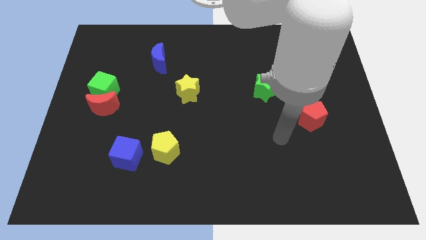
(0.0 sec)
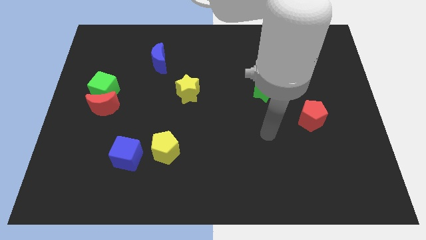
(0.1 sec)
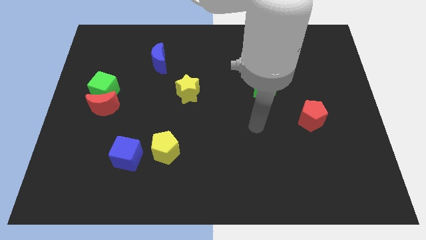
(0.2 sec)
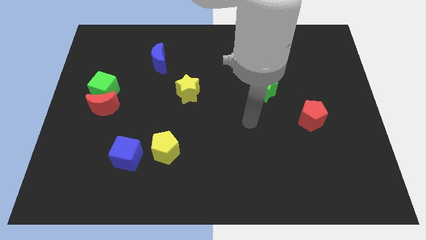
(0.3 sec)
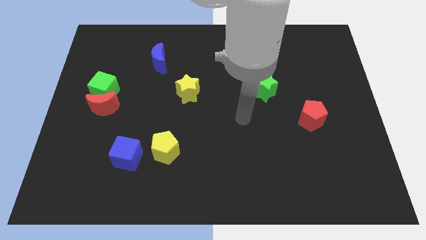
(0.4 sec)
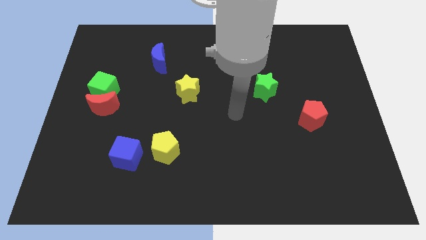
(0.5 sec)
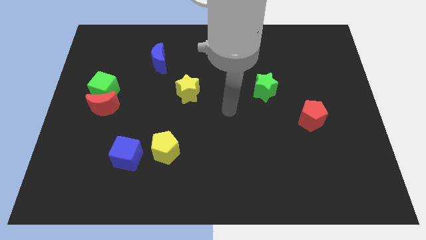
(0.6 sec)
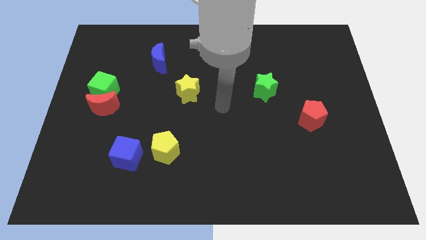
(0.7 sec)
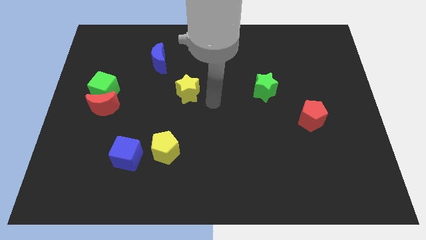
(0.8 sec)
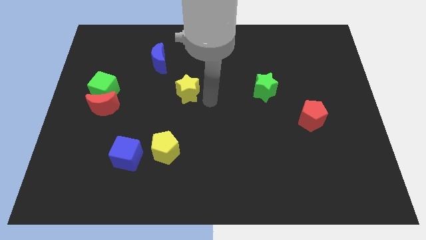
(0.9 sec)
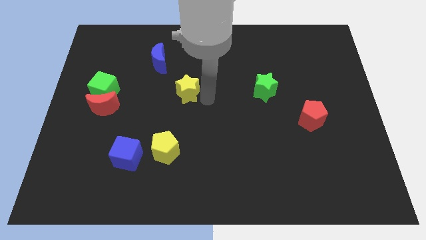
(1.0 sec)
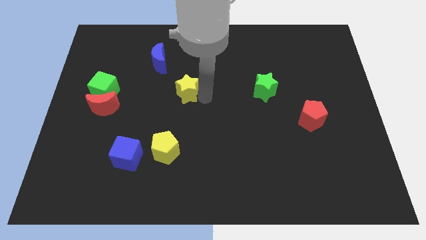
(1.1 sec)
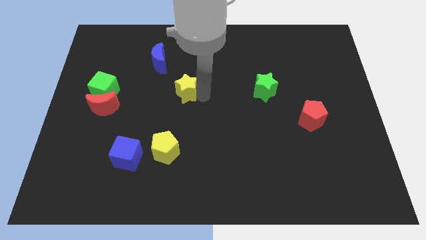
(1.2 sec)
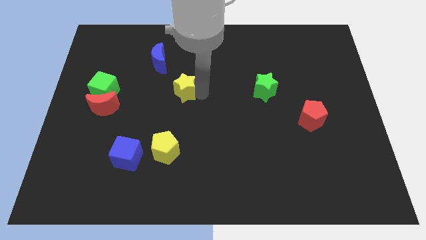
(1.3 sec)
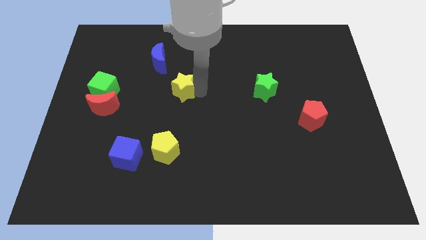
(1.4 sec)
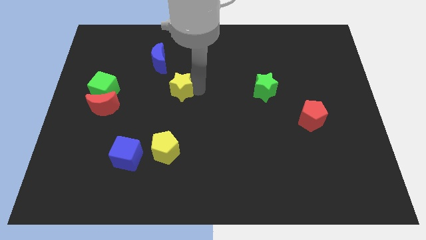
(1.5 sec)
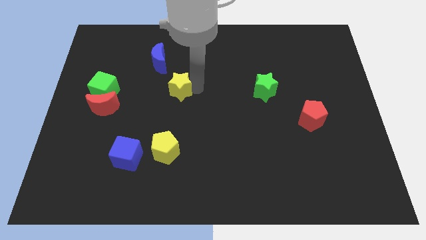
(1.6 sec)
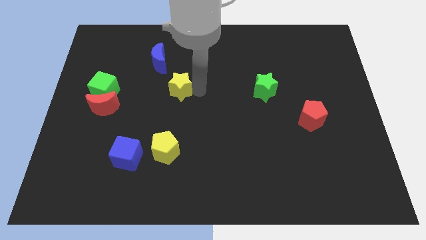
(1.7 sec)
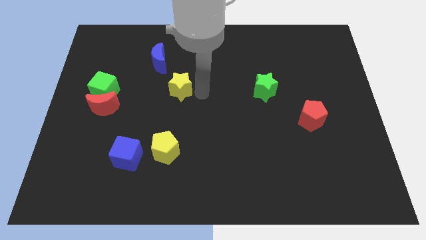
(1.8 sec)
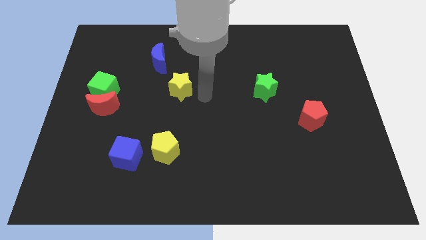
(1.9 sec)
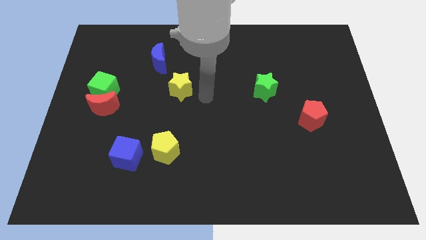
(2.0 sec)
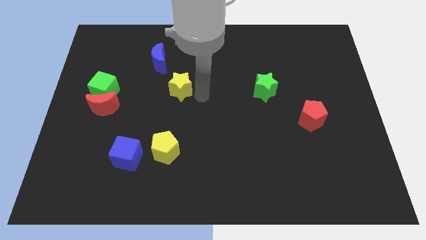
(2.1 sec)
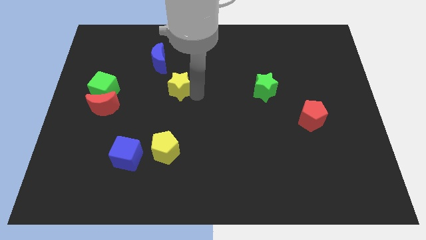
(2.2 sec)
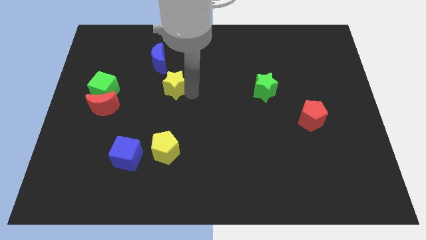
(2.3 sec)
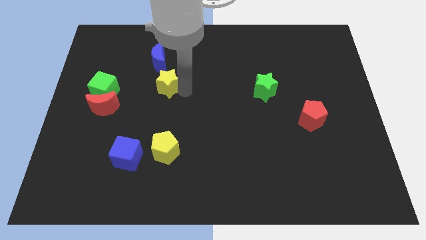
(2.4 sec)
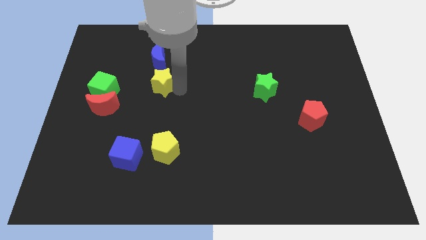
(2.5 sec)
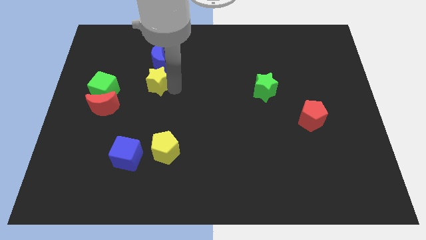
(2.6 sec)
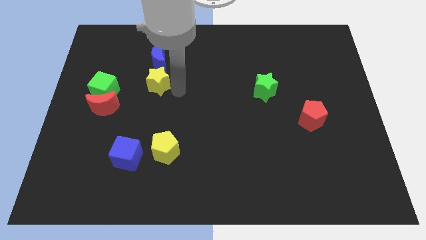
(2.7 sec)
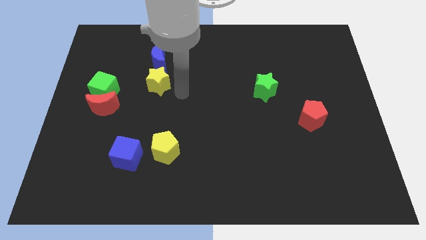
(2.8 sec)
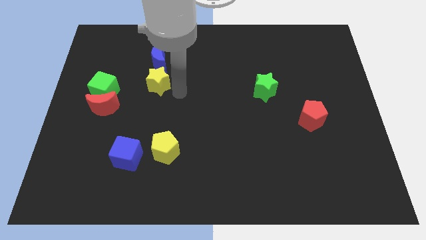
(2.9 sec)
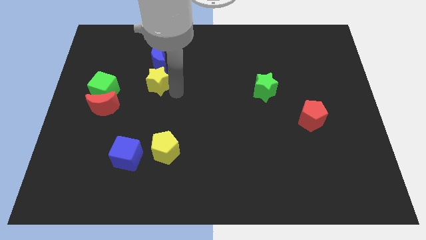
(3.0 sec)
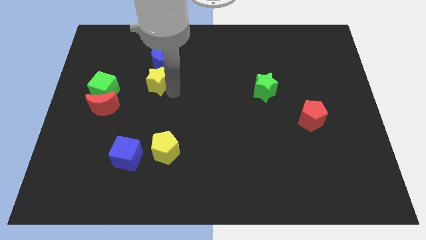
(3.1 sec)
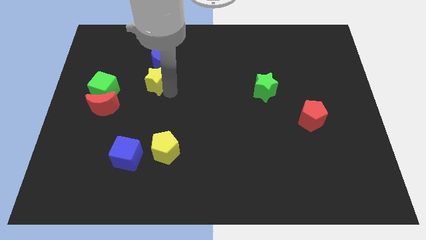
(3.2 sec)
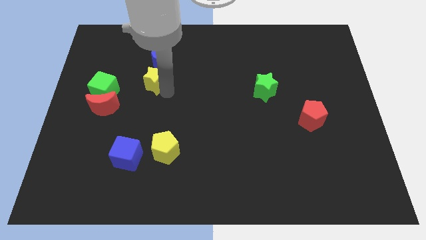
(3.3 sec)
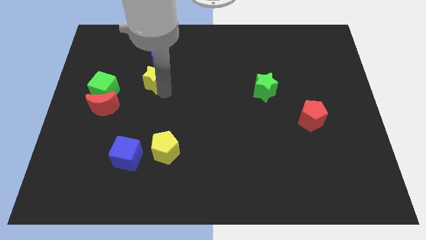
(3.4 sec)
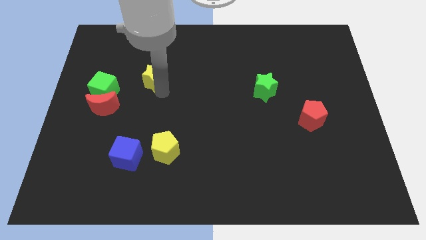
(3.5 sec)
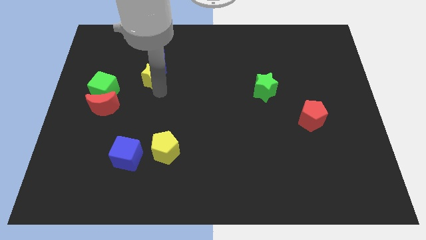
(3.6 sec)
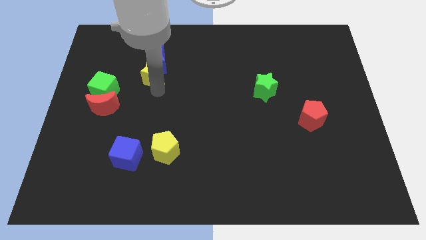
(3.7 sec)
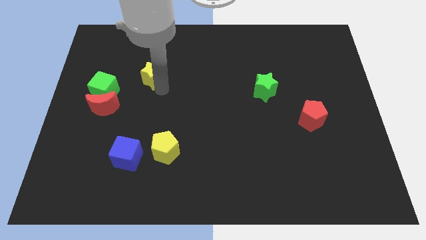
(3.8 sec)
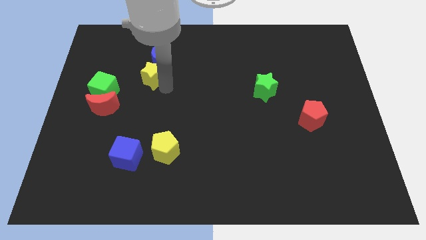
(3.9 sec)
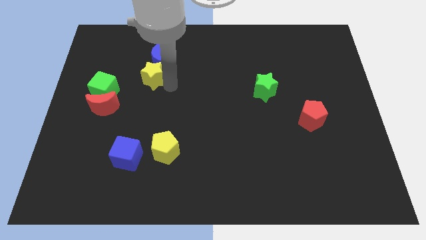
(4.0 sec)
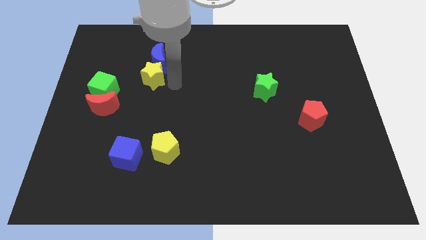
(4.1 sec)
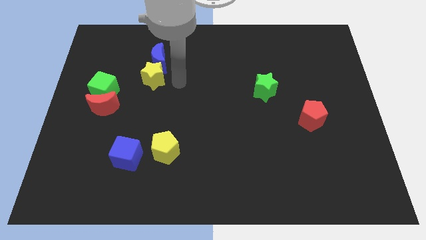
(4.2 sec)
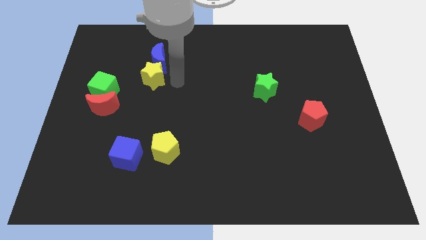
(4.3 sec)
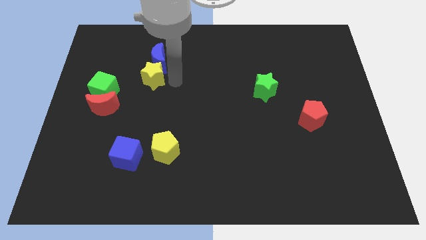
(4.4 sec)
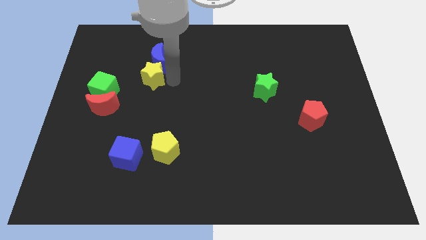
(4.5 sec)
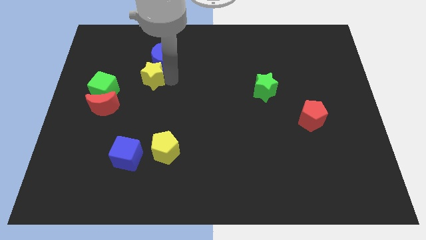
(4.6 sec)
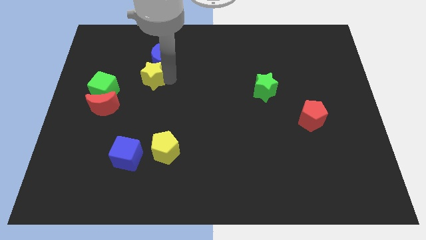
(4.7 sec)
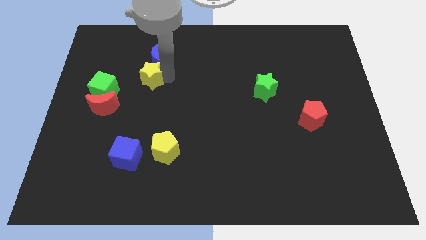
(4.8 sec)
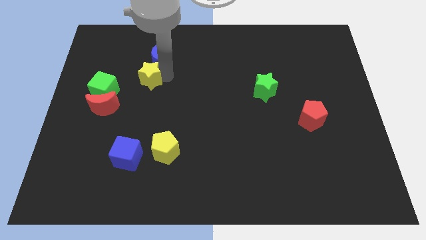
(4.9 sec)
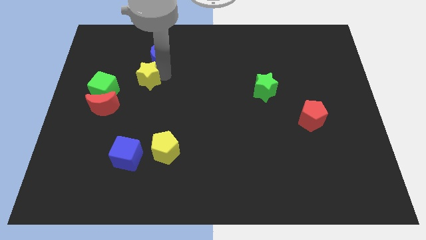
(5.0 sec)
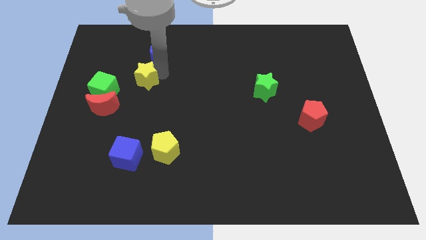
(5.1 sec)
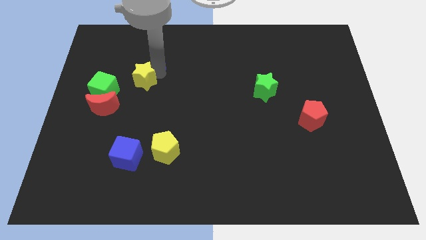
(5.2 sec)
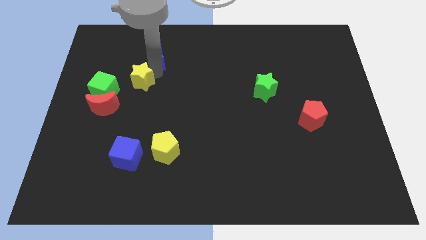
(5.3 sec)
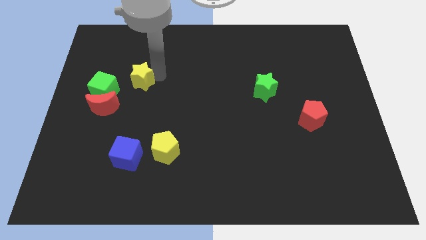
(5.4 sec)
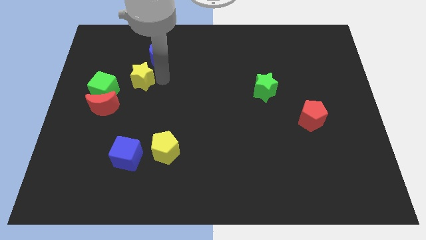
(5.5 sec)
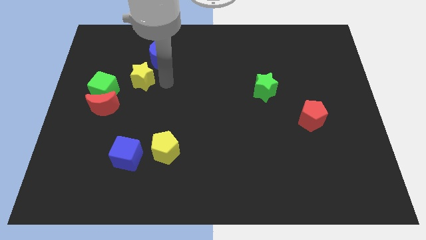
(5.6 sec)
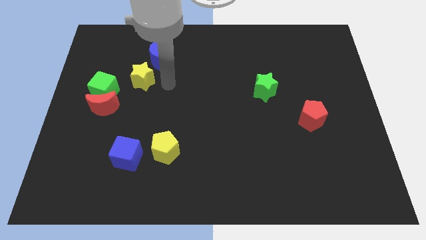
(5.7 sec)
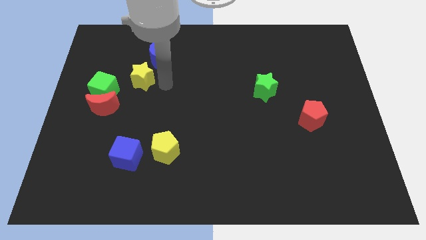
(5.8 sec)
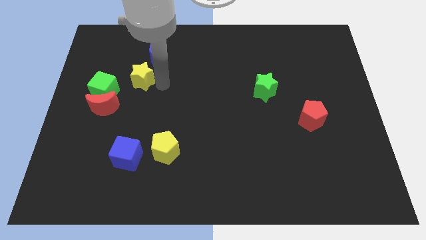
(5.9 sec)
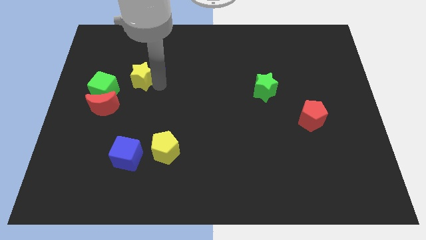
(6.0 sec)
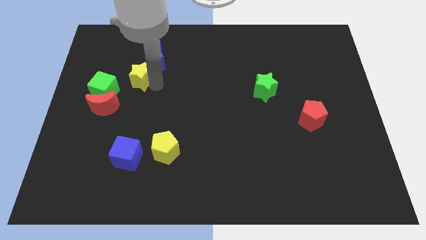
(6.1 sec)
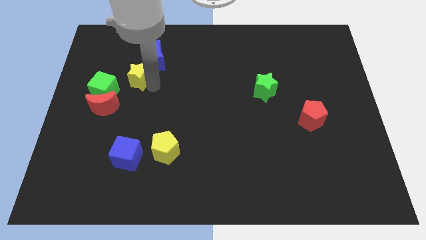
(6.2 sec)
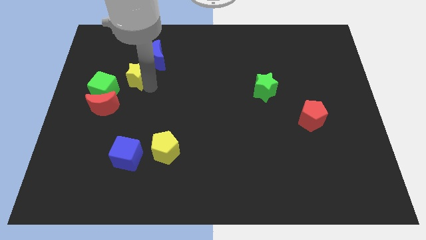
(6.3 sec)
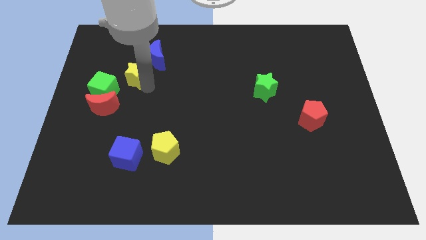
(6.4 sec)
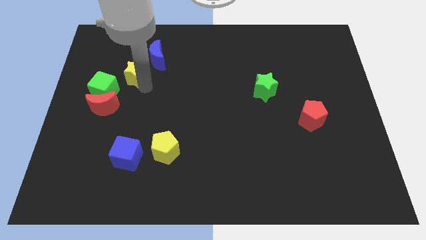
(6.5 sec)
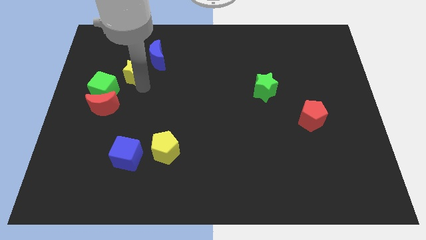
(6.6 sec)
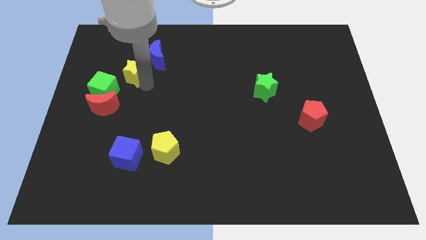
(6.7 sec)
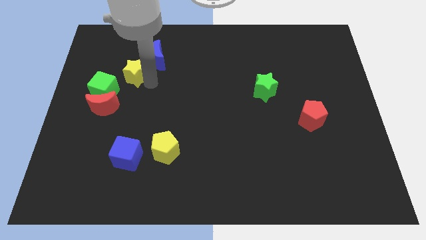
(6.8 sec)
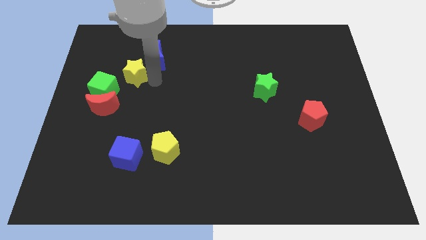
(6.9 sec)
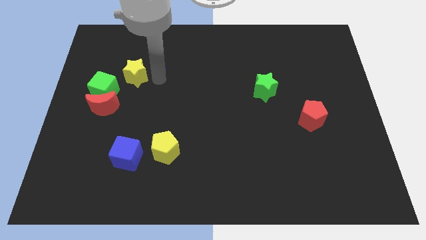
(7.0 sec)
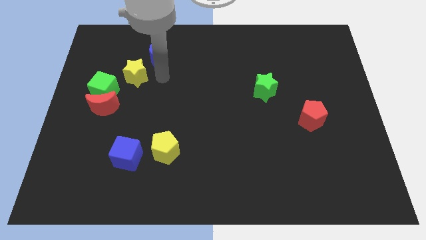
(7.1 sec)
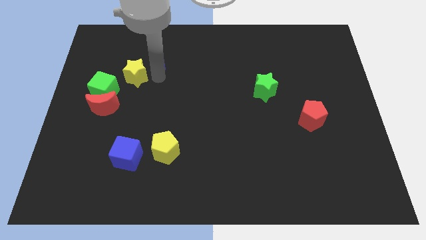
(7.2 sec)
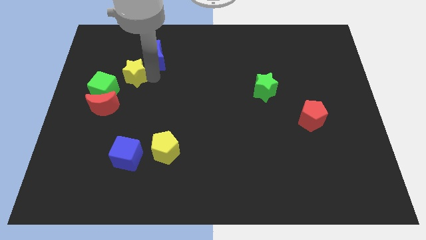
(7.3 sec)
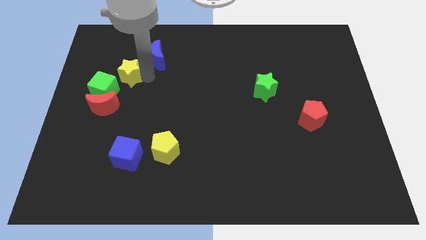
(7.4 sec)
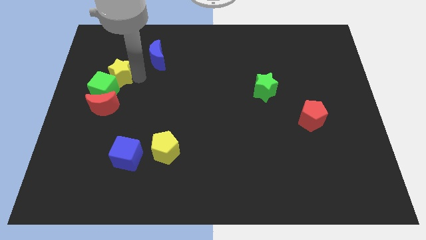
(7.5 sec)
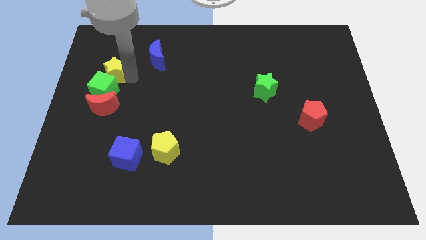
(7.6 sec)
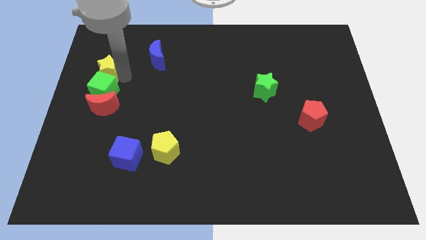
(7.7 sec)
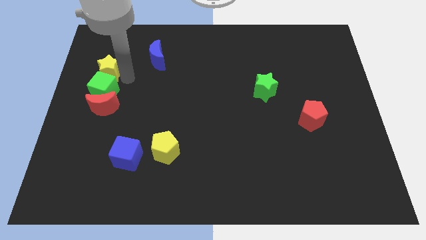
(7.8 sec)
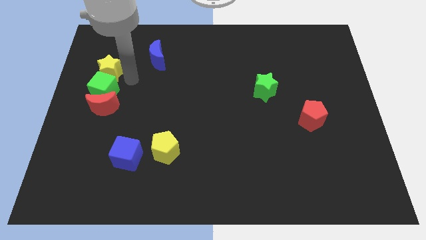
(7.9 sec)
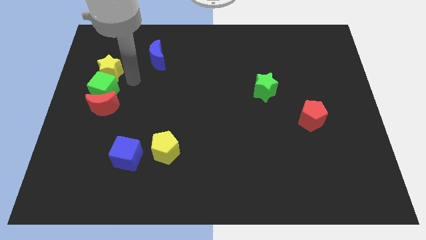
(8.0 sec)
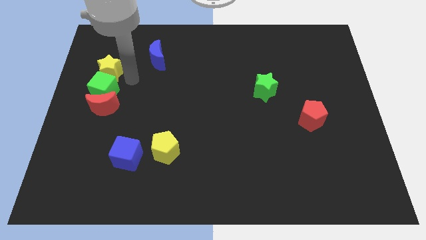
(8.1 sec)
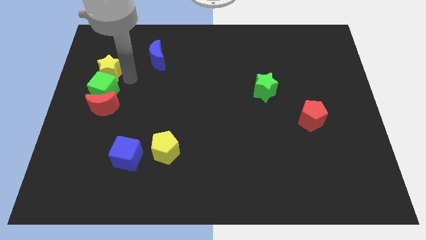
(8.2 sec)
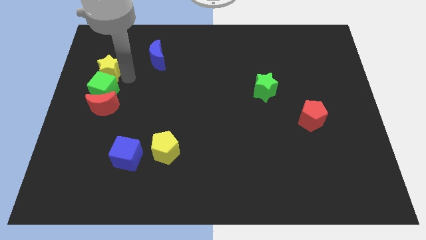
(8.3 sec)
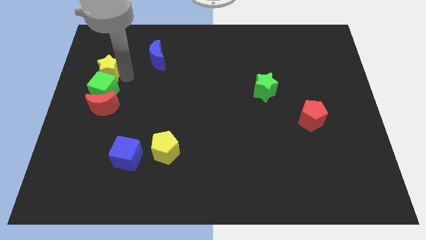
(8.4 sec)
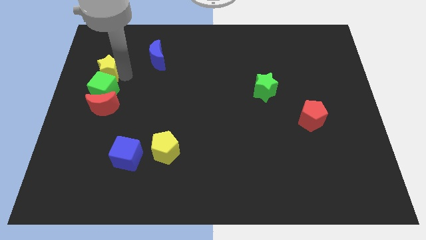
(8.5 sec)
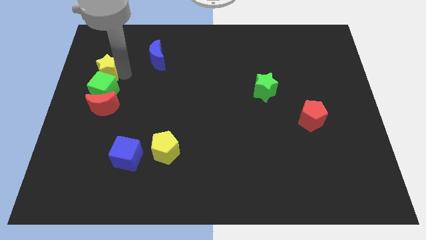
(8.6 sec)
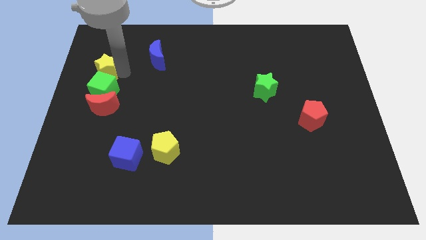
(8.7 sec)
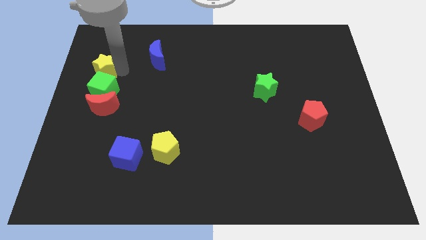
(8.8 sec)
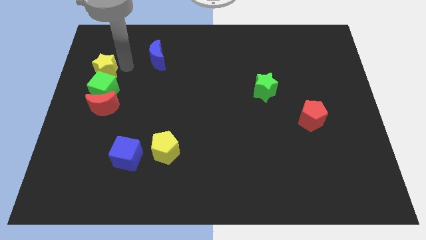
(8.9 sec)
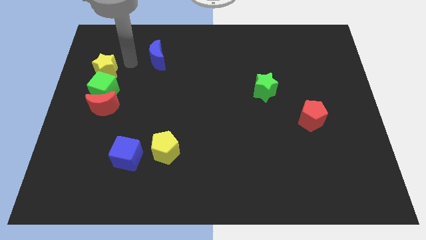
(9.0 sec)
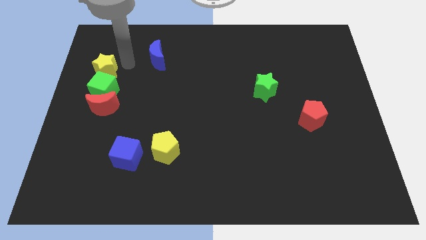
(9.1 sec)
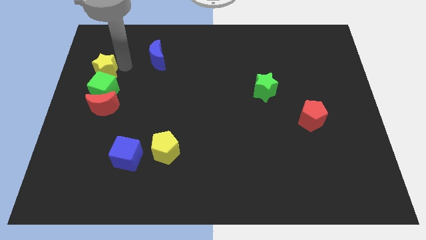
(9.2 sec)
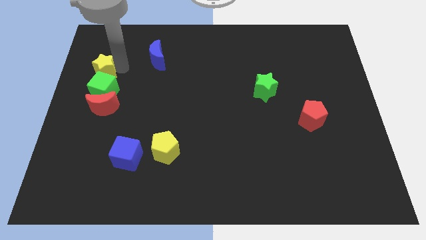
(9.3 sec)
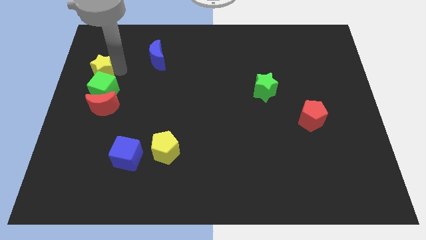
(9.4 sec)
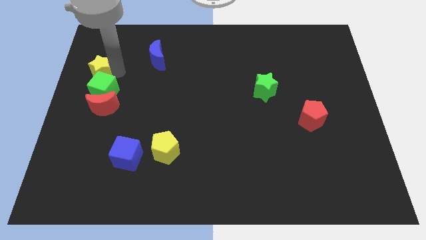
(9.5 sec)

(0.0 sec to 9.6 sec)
put the yellow star to the center left
